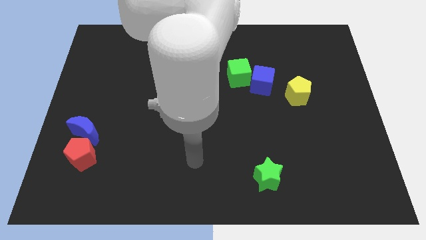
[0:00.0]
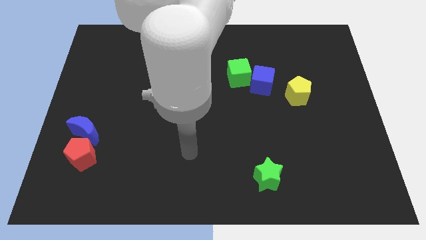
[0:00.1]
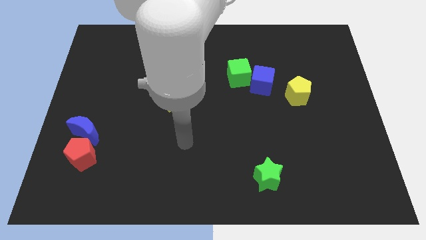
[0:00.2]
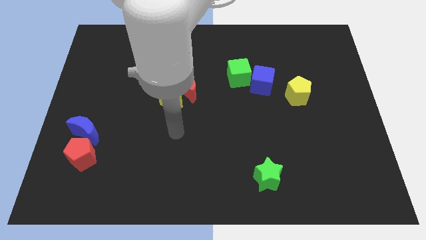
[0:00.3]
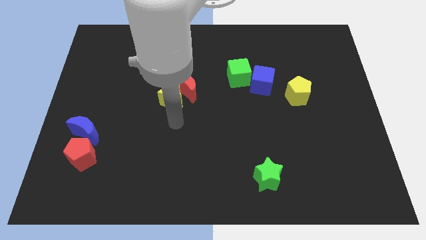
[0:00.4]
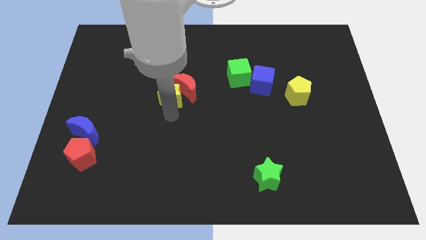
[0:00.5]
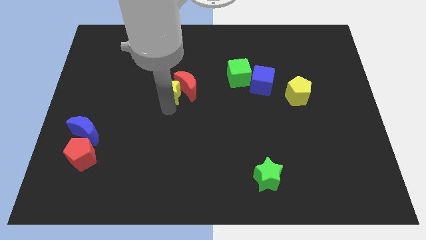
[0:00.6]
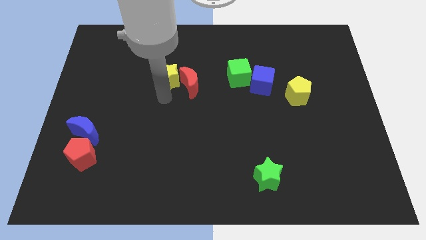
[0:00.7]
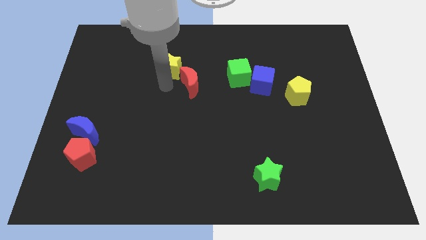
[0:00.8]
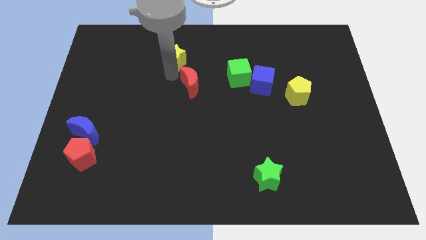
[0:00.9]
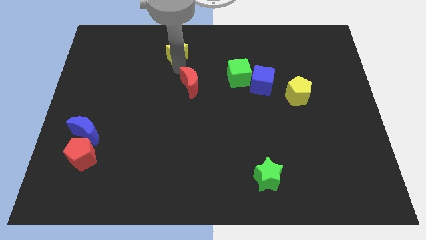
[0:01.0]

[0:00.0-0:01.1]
pull the red moon apart from the yellow star

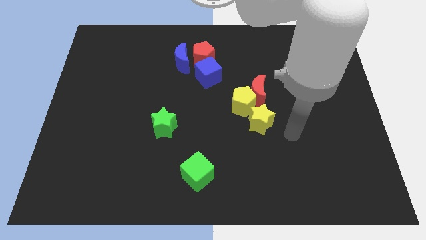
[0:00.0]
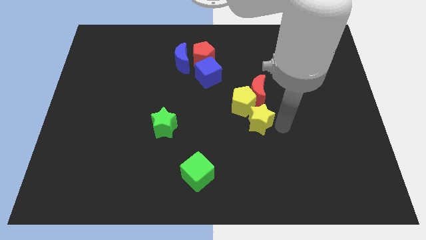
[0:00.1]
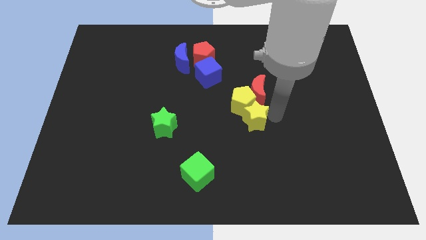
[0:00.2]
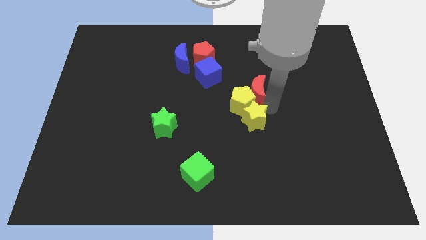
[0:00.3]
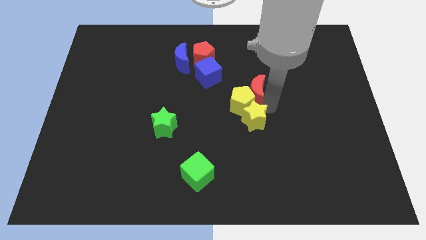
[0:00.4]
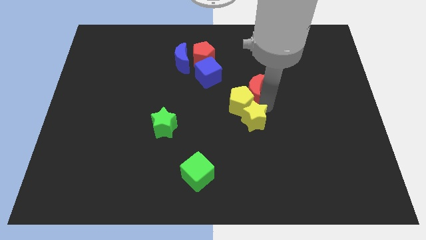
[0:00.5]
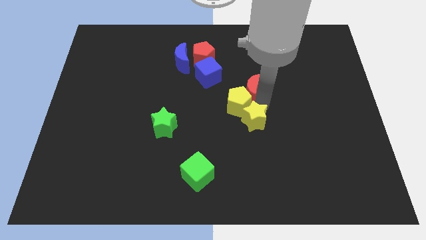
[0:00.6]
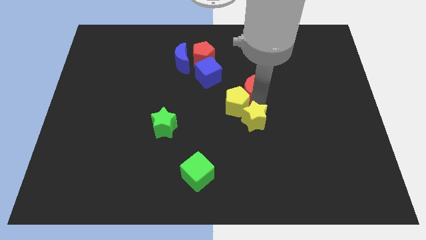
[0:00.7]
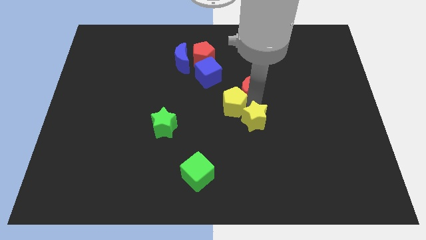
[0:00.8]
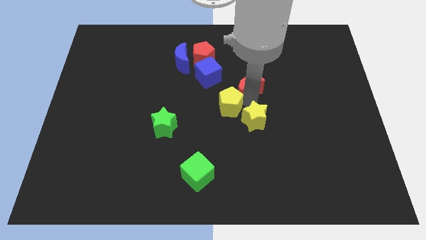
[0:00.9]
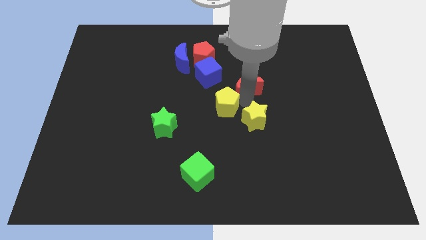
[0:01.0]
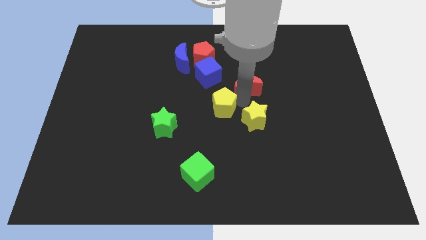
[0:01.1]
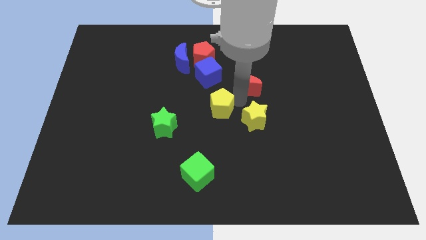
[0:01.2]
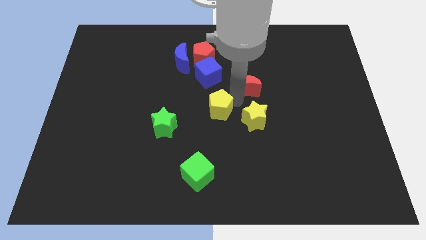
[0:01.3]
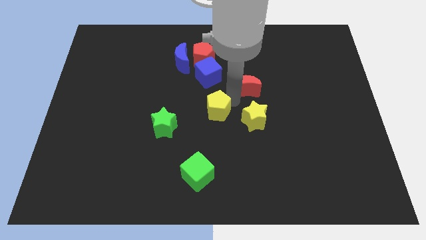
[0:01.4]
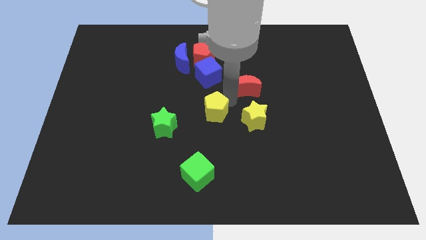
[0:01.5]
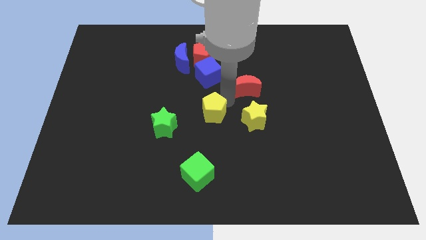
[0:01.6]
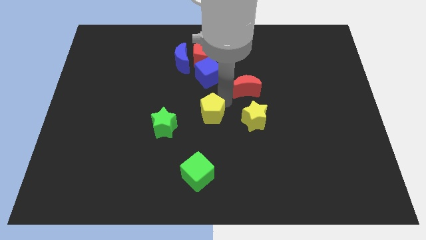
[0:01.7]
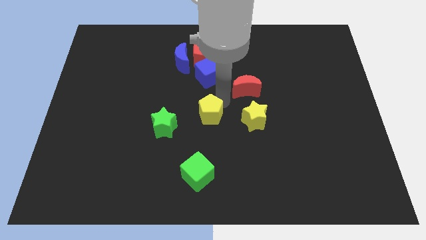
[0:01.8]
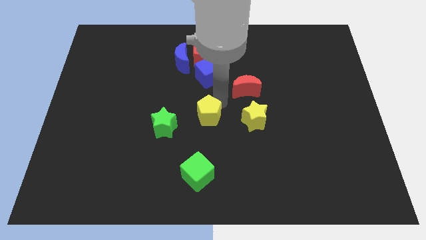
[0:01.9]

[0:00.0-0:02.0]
pull the yellow pentagon apart from the red moon and yellow star

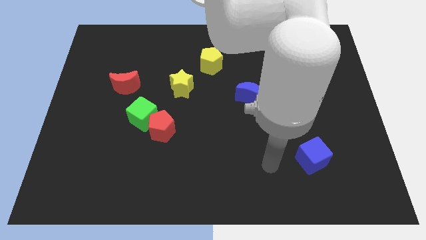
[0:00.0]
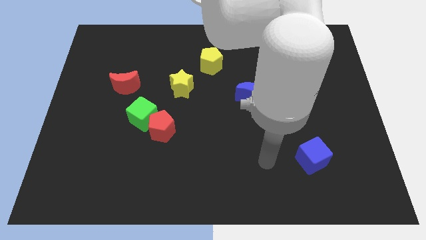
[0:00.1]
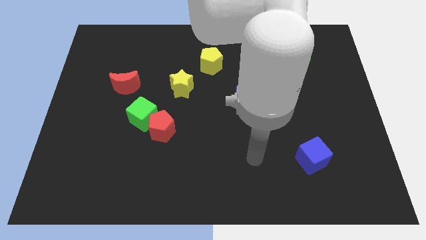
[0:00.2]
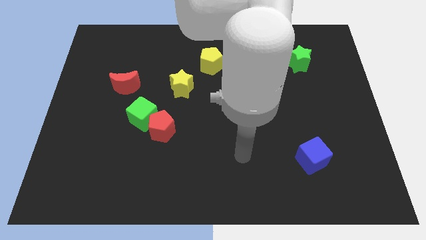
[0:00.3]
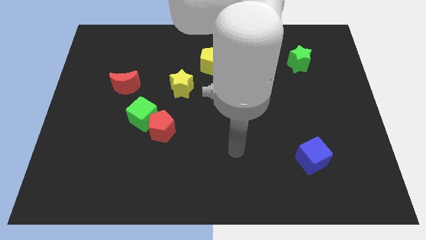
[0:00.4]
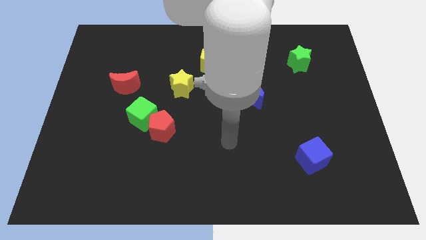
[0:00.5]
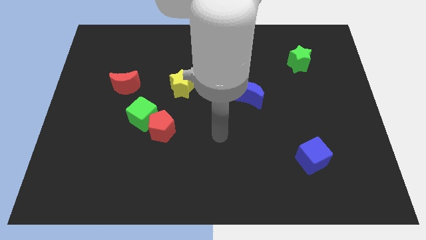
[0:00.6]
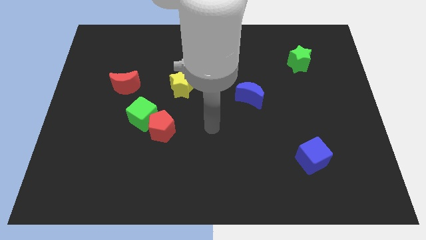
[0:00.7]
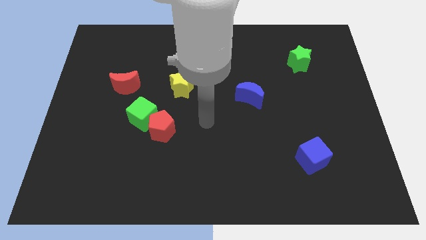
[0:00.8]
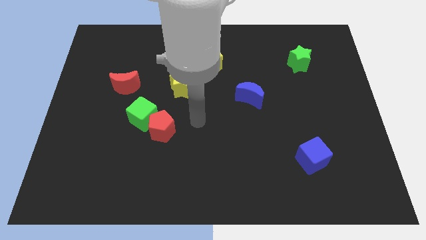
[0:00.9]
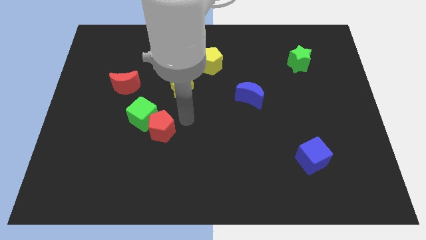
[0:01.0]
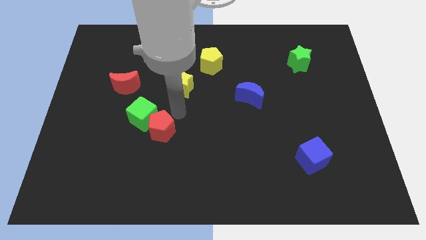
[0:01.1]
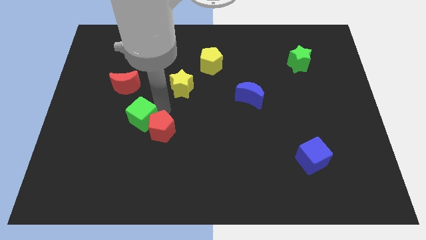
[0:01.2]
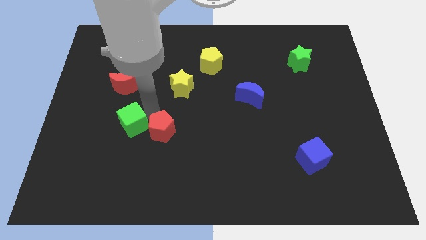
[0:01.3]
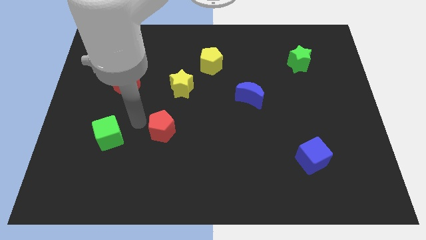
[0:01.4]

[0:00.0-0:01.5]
move the red pentagon away from the green cube

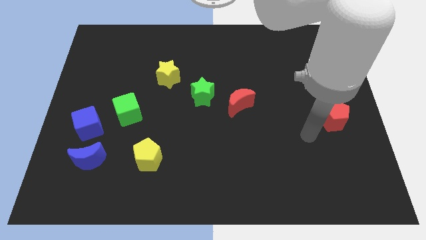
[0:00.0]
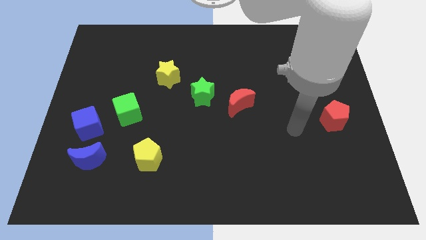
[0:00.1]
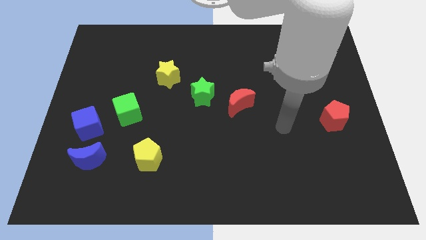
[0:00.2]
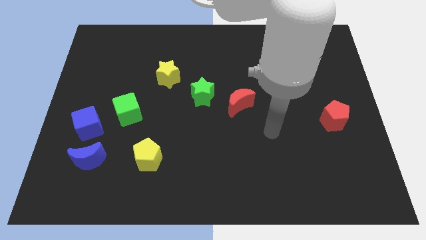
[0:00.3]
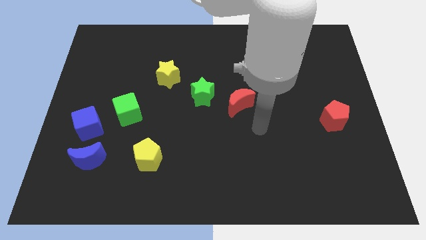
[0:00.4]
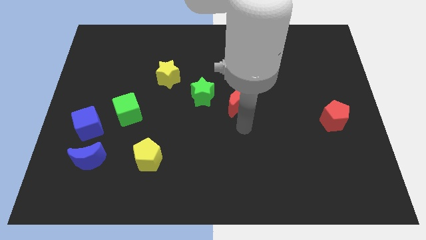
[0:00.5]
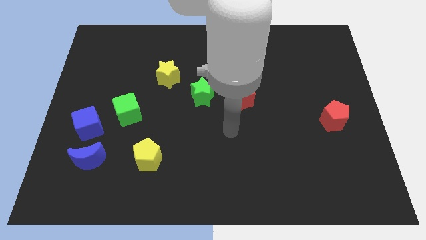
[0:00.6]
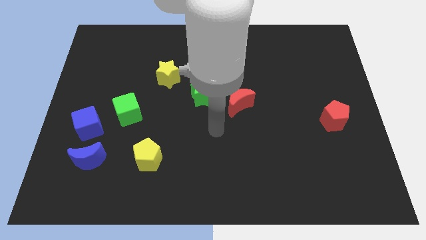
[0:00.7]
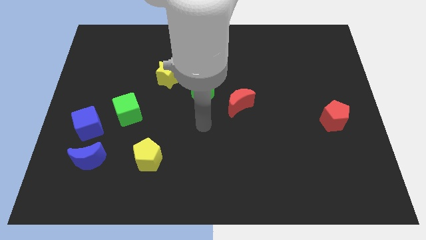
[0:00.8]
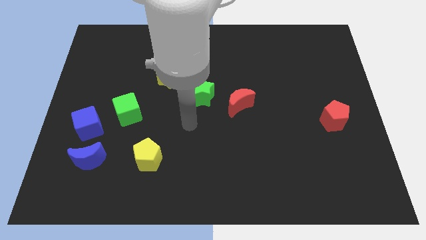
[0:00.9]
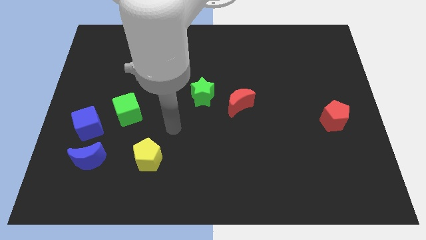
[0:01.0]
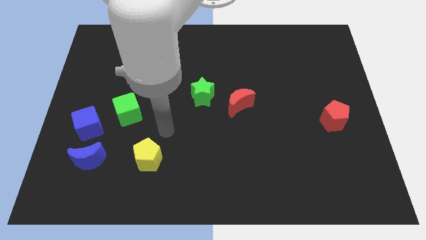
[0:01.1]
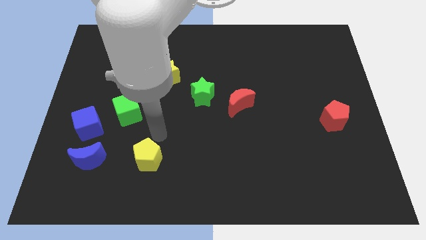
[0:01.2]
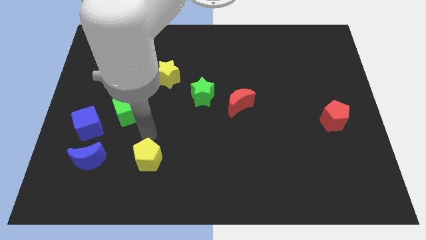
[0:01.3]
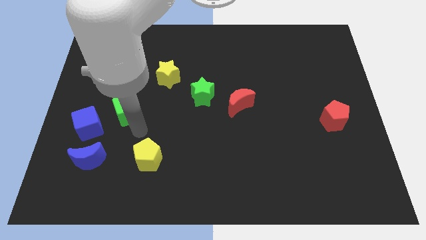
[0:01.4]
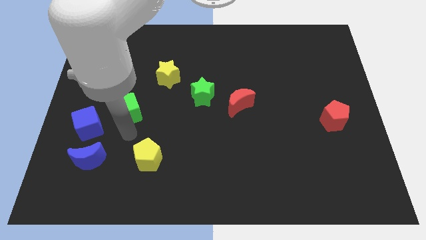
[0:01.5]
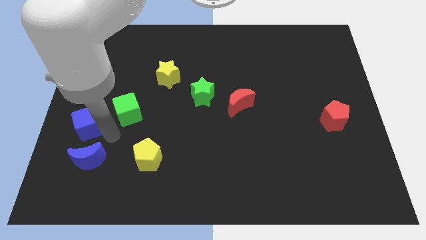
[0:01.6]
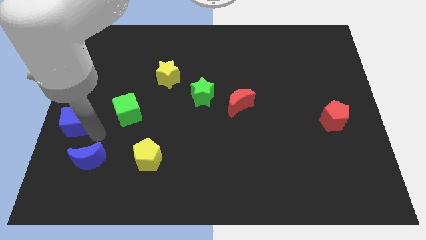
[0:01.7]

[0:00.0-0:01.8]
pull the blue moon apart from the blue cube

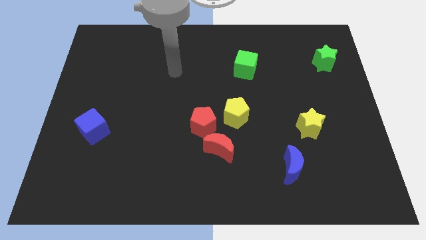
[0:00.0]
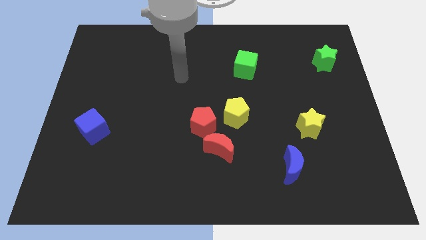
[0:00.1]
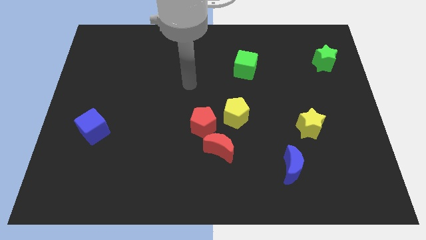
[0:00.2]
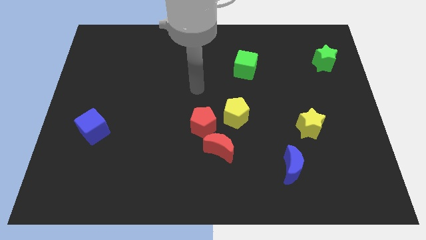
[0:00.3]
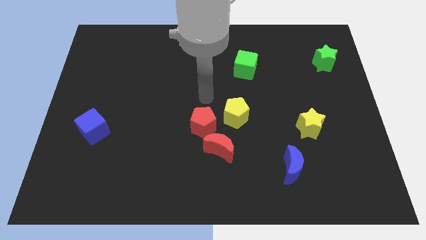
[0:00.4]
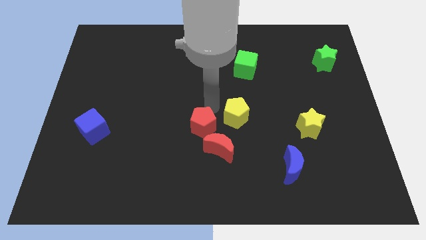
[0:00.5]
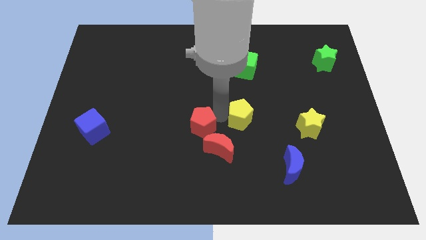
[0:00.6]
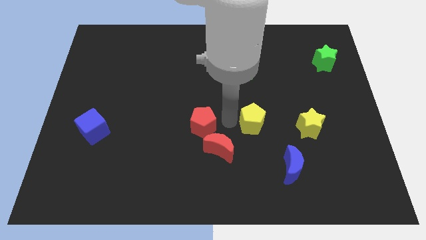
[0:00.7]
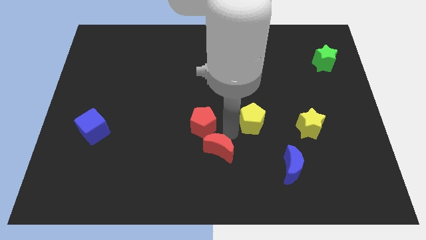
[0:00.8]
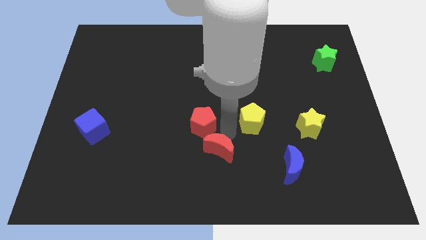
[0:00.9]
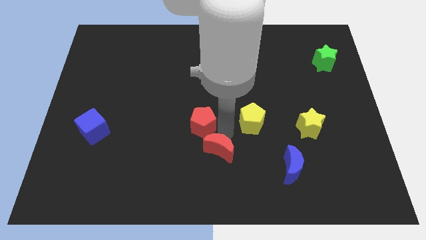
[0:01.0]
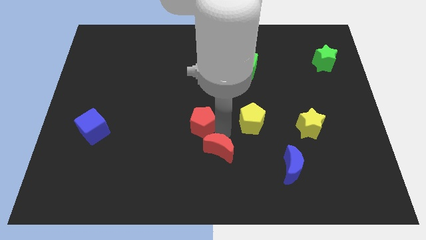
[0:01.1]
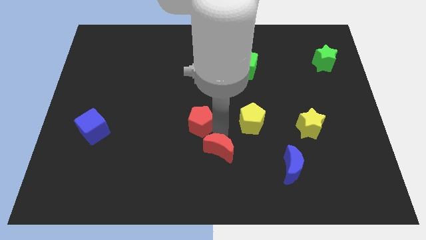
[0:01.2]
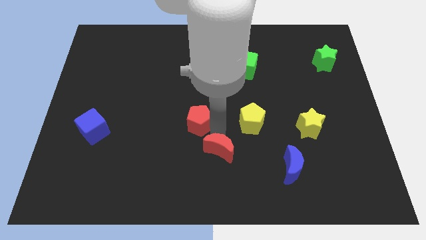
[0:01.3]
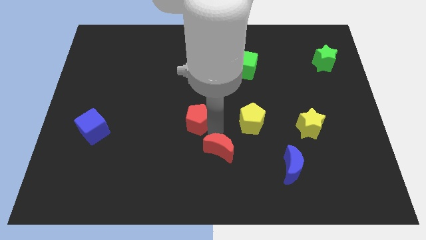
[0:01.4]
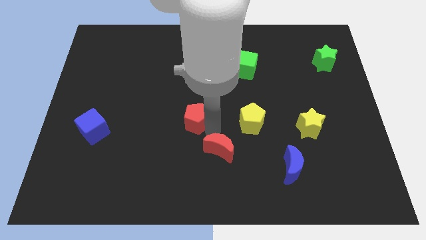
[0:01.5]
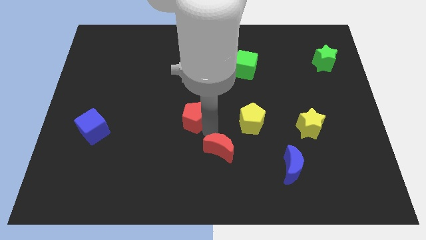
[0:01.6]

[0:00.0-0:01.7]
pull the red pentagon apart from the red moon and yellow pentagon

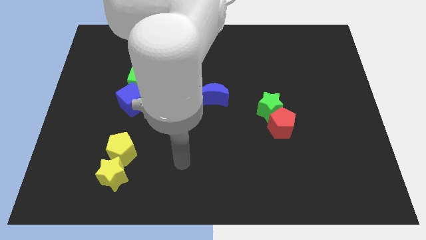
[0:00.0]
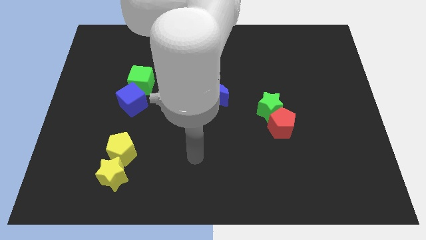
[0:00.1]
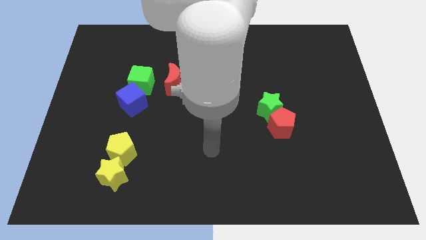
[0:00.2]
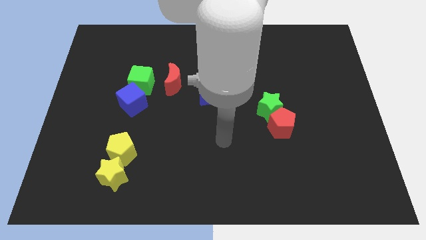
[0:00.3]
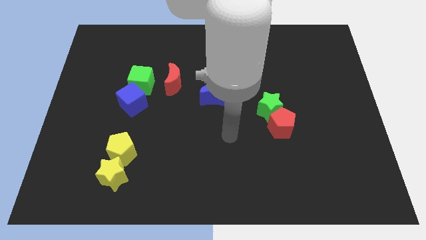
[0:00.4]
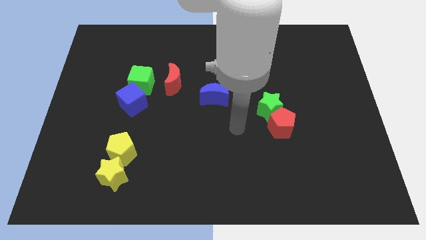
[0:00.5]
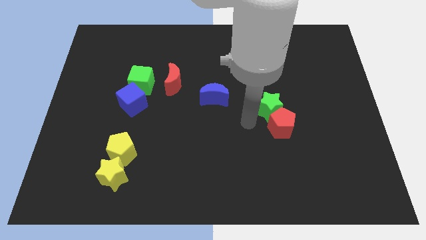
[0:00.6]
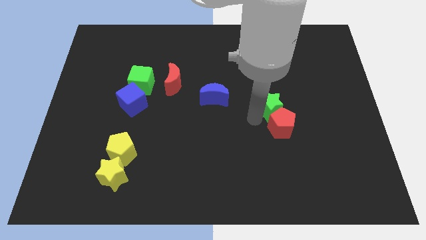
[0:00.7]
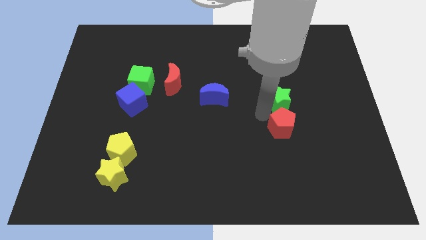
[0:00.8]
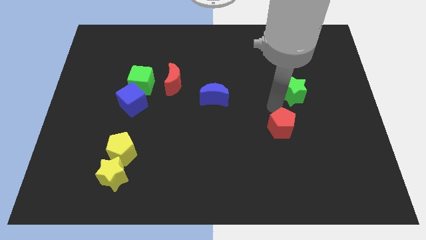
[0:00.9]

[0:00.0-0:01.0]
move the red pentagon away from the green star
